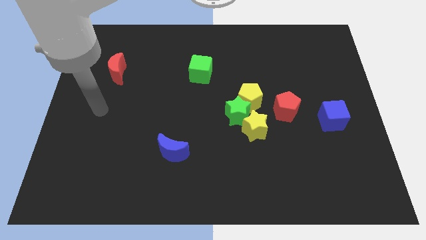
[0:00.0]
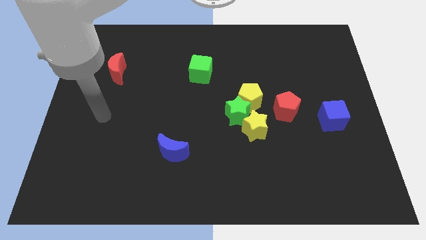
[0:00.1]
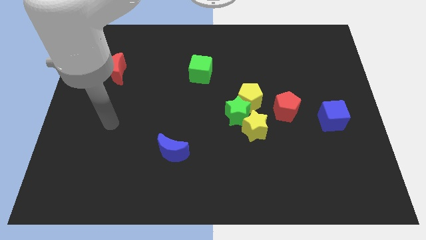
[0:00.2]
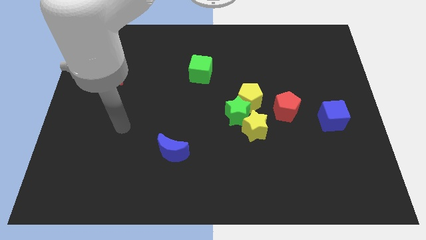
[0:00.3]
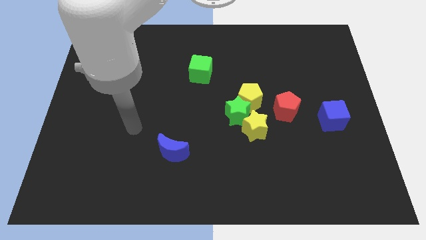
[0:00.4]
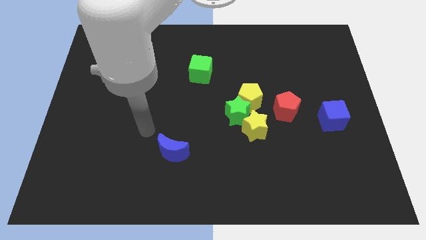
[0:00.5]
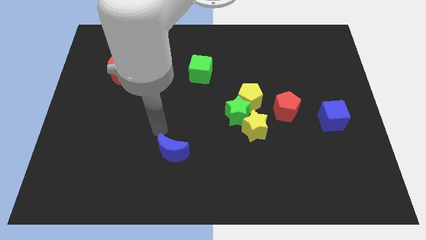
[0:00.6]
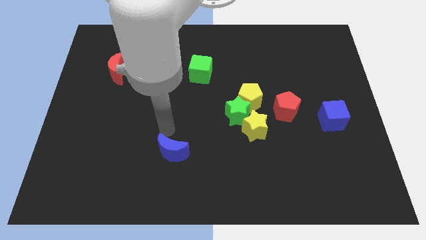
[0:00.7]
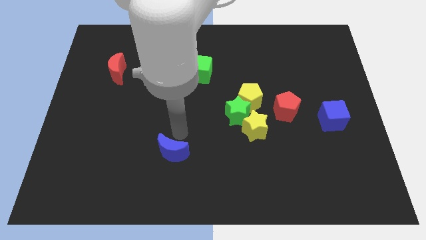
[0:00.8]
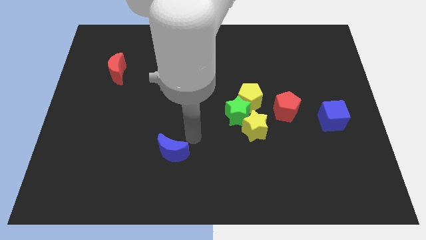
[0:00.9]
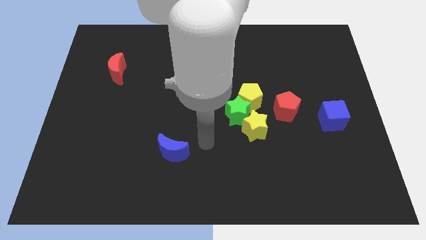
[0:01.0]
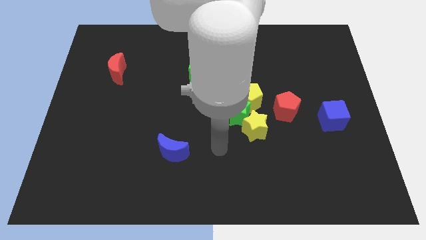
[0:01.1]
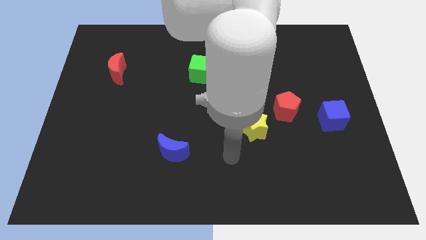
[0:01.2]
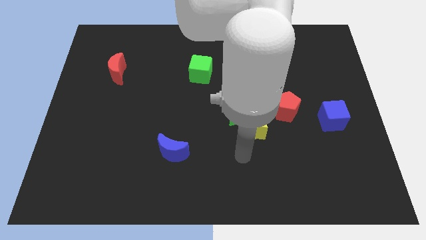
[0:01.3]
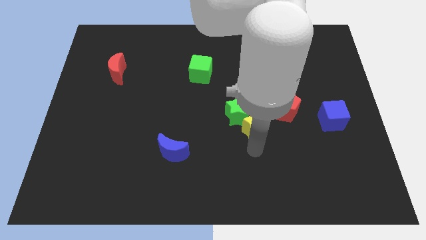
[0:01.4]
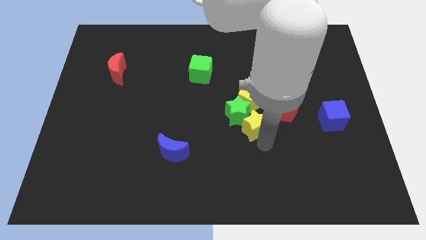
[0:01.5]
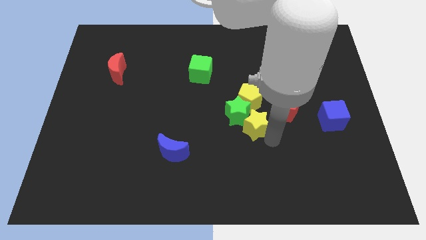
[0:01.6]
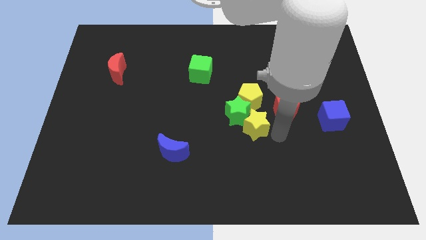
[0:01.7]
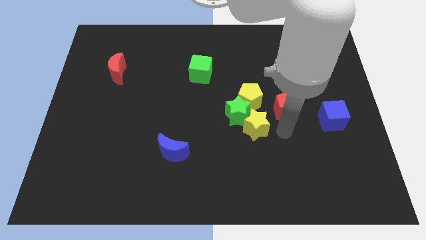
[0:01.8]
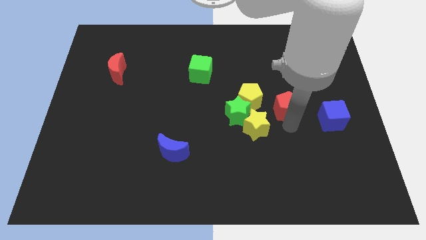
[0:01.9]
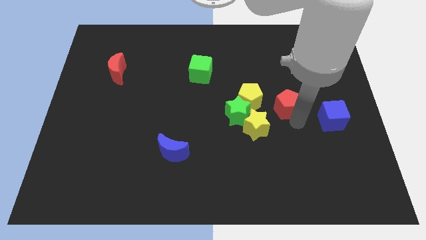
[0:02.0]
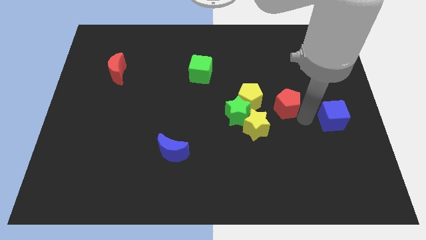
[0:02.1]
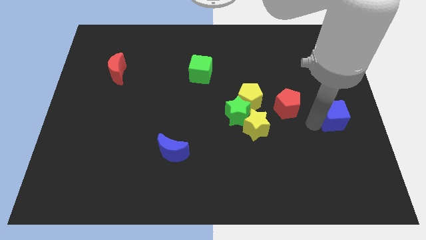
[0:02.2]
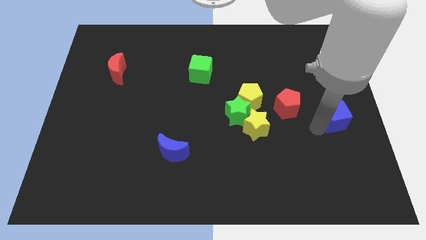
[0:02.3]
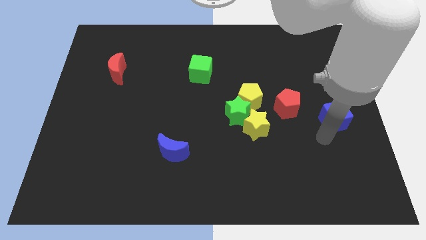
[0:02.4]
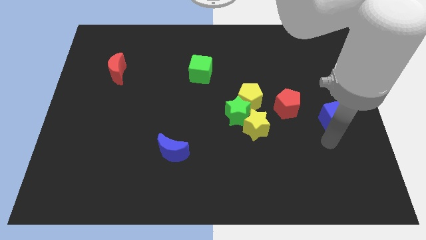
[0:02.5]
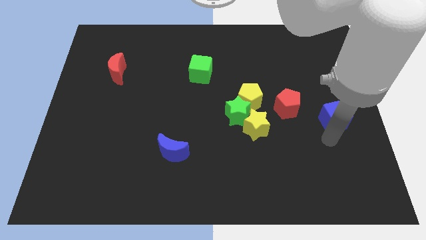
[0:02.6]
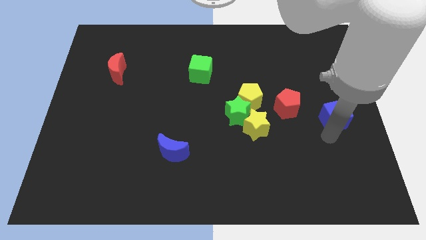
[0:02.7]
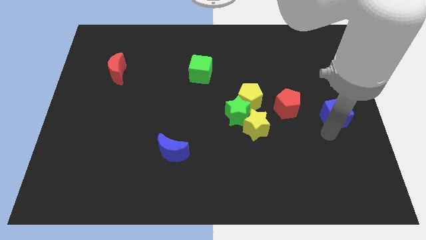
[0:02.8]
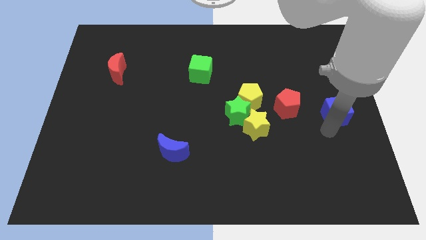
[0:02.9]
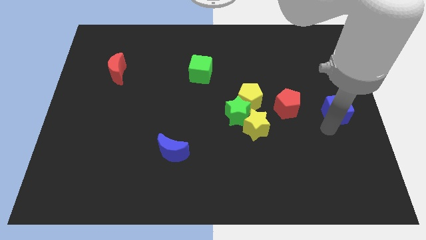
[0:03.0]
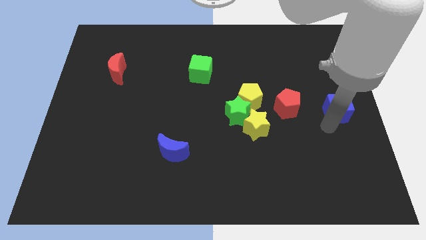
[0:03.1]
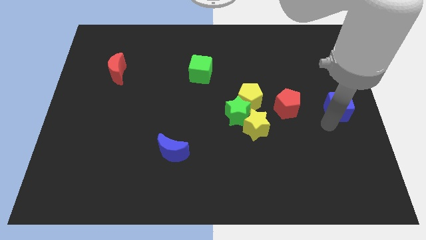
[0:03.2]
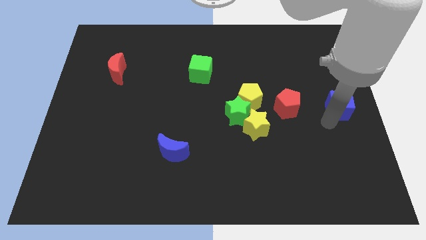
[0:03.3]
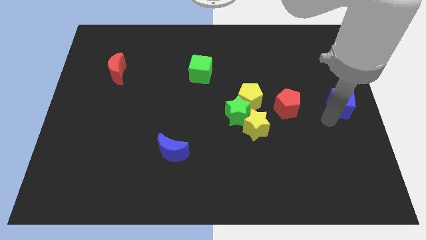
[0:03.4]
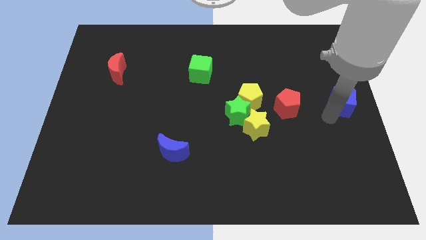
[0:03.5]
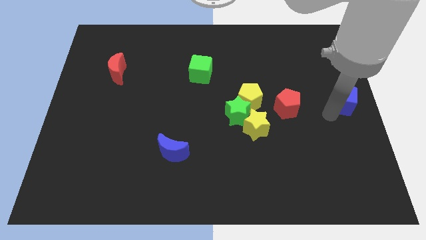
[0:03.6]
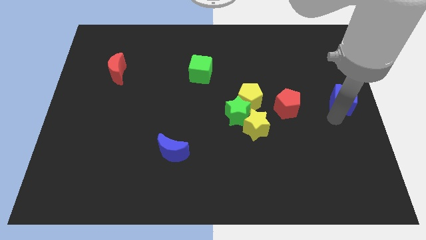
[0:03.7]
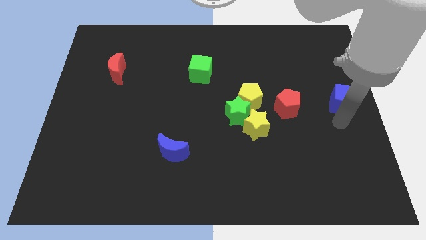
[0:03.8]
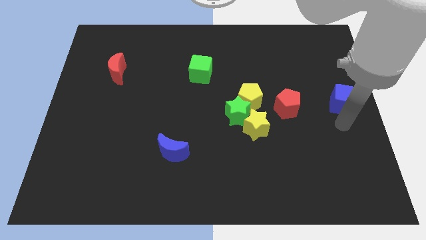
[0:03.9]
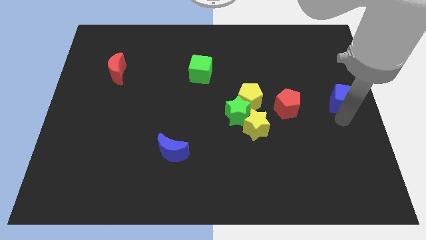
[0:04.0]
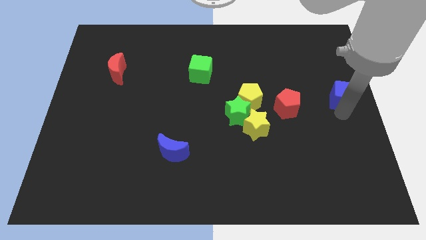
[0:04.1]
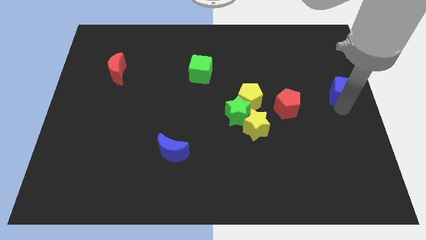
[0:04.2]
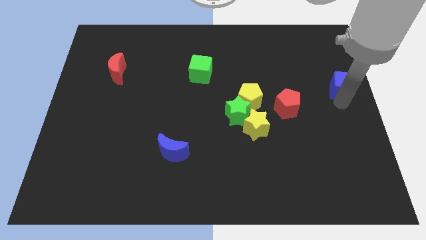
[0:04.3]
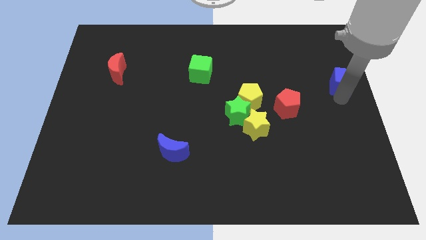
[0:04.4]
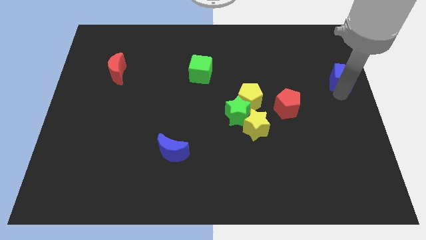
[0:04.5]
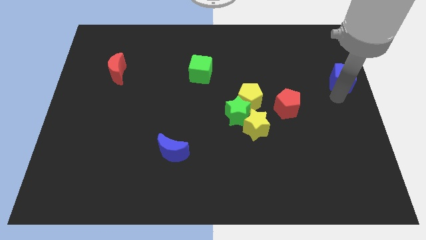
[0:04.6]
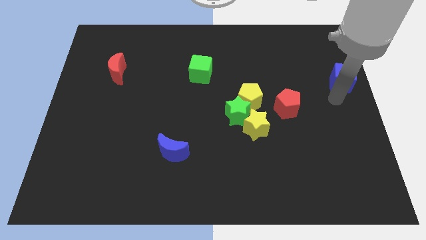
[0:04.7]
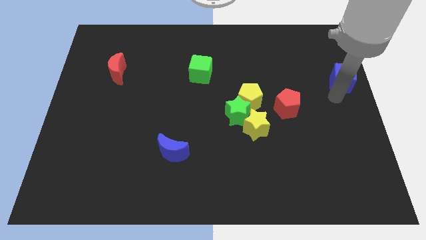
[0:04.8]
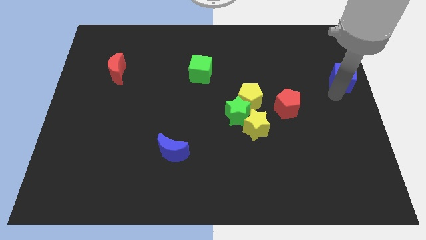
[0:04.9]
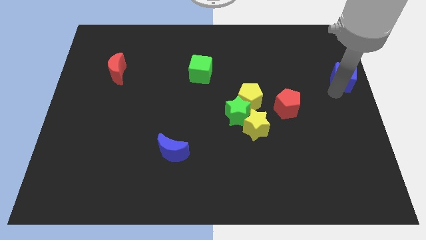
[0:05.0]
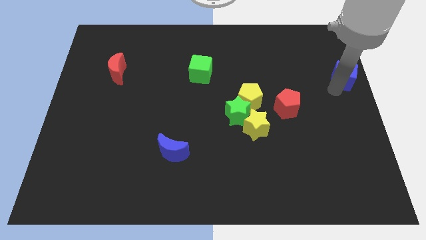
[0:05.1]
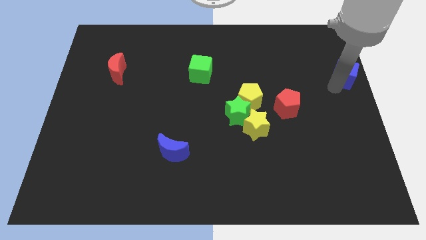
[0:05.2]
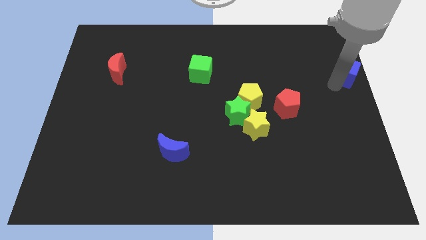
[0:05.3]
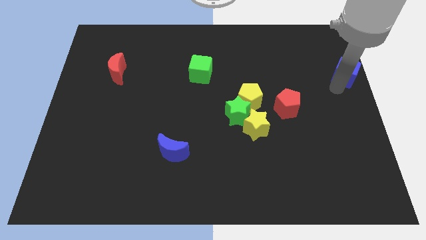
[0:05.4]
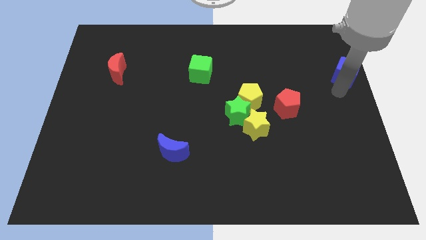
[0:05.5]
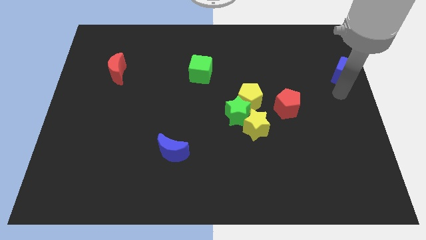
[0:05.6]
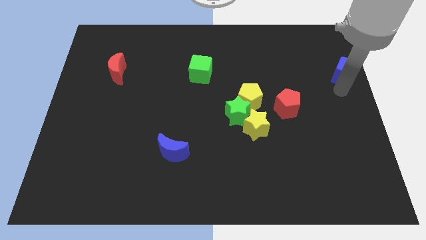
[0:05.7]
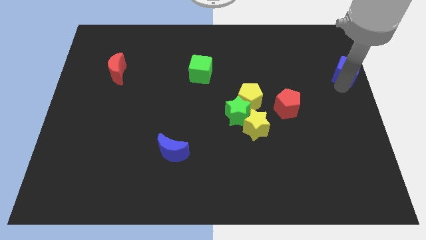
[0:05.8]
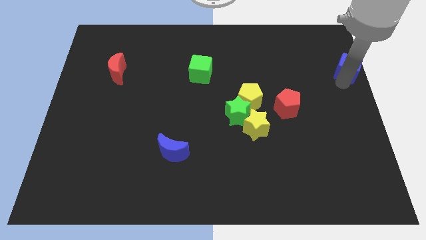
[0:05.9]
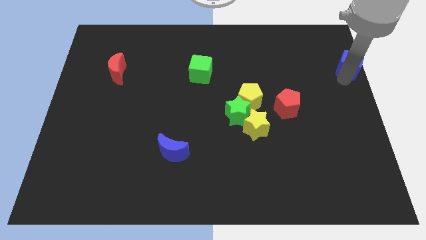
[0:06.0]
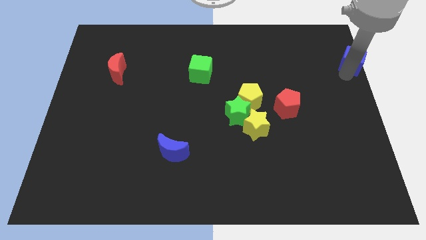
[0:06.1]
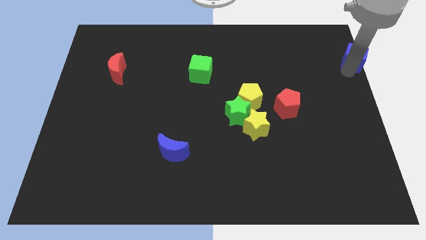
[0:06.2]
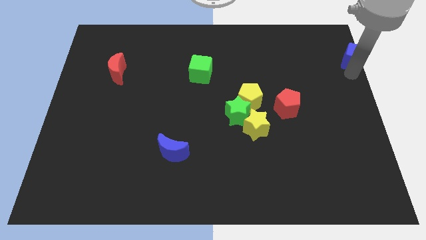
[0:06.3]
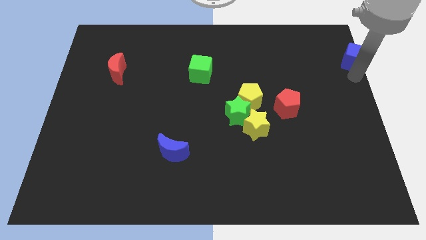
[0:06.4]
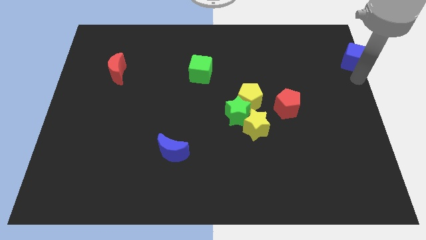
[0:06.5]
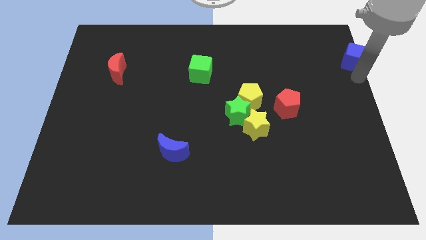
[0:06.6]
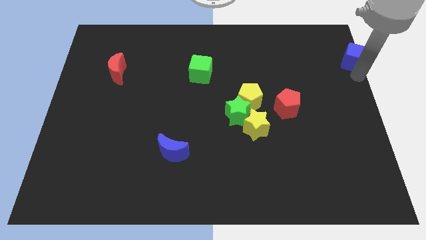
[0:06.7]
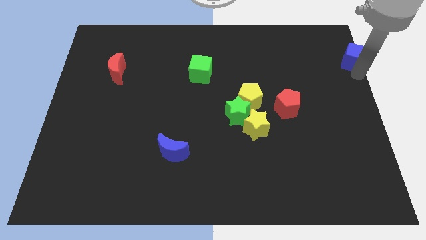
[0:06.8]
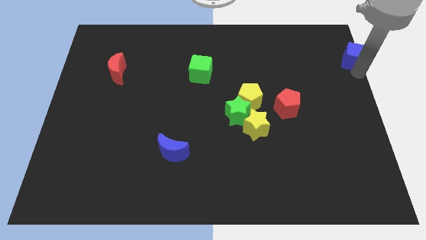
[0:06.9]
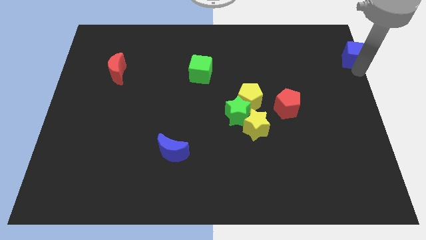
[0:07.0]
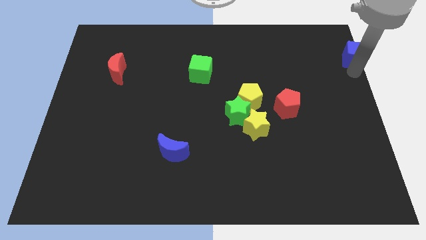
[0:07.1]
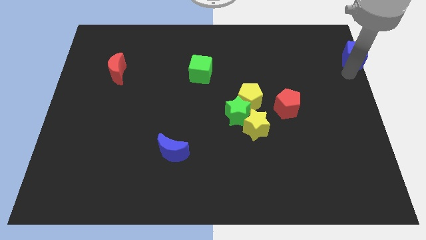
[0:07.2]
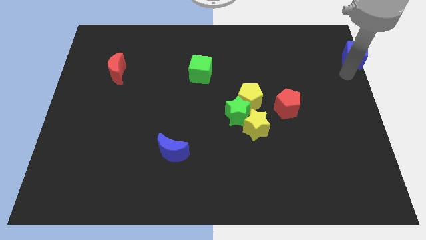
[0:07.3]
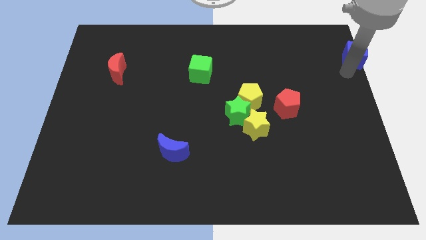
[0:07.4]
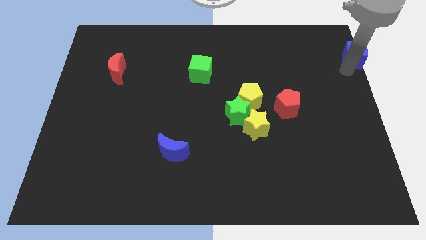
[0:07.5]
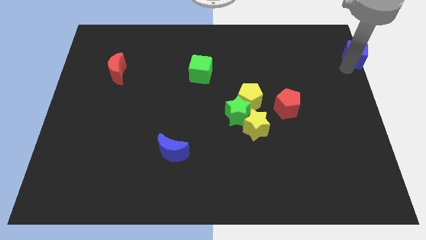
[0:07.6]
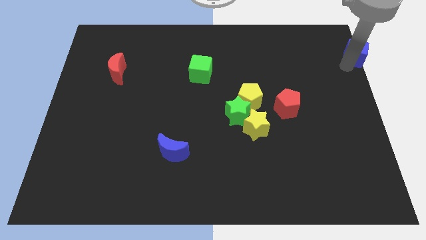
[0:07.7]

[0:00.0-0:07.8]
move the blue cube to the upper right corner
